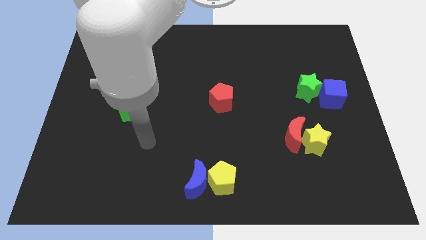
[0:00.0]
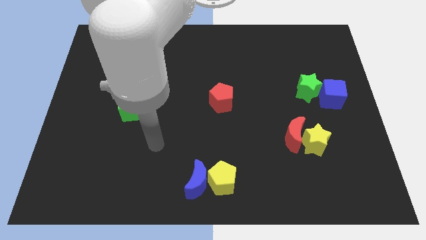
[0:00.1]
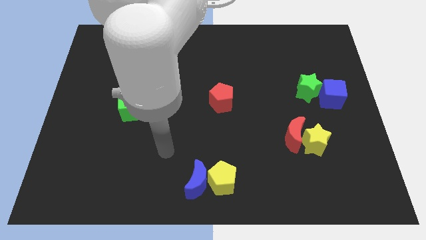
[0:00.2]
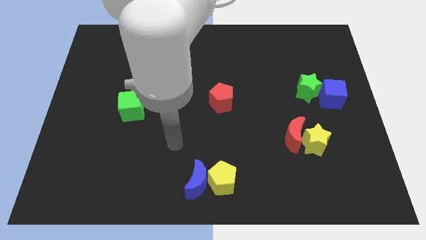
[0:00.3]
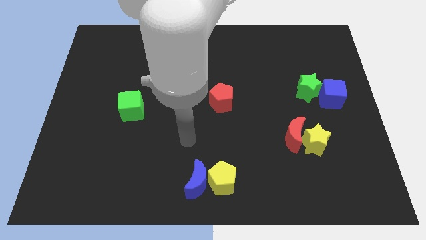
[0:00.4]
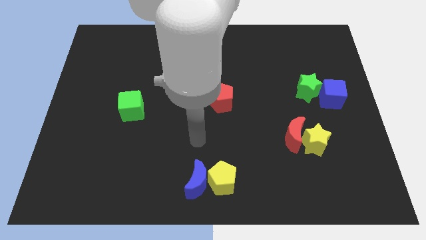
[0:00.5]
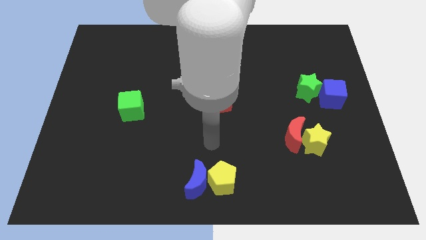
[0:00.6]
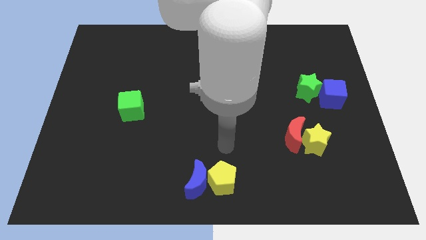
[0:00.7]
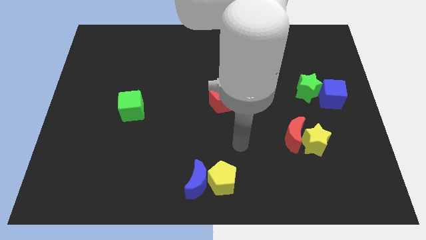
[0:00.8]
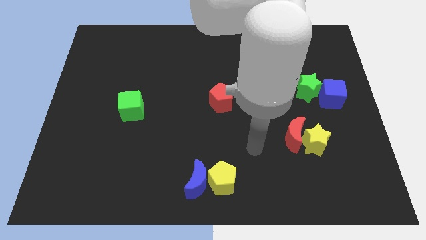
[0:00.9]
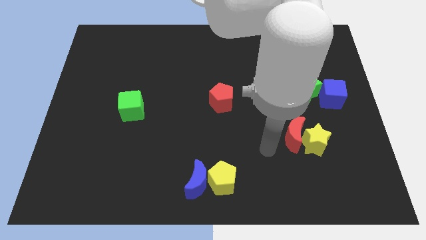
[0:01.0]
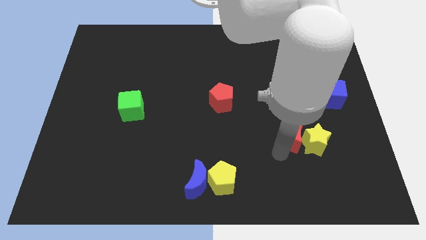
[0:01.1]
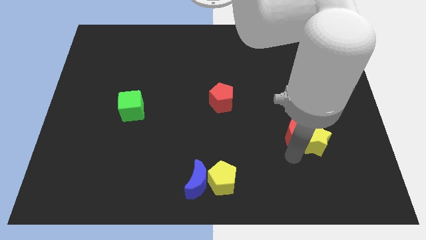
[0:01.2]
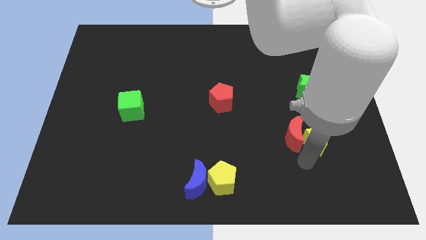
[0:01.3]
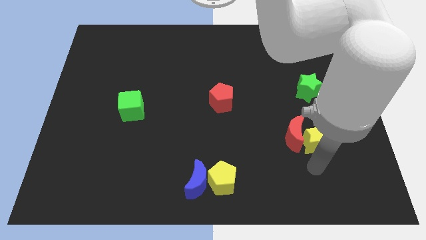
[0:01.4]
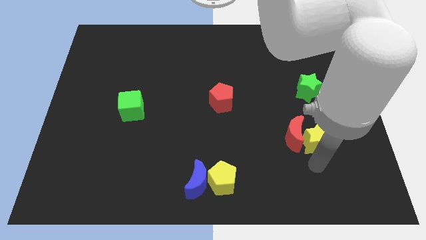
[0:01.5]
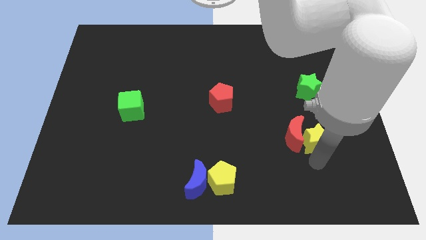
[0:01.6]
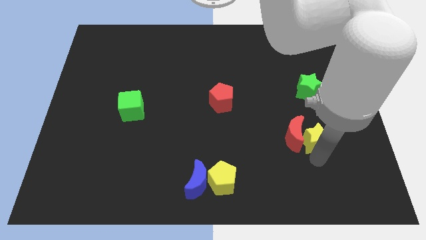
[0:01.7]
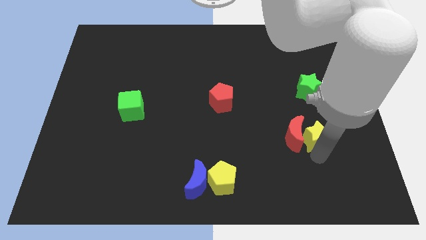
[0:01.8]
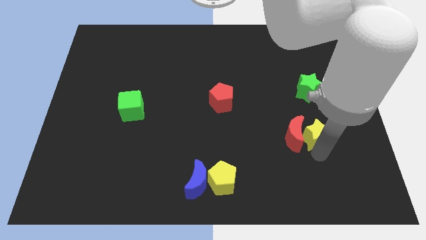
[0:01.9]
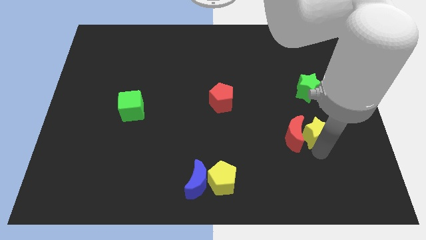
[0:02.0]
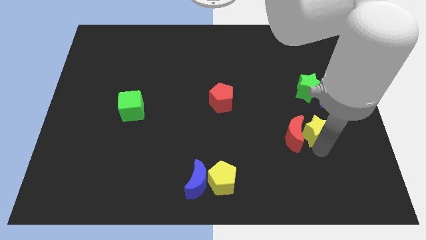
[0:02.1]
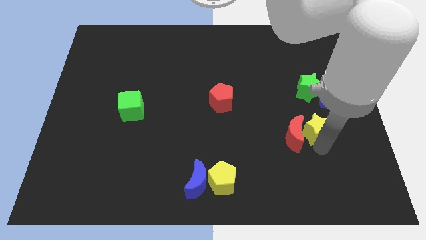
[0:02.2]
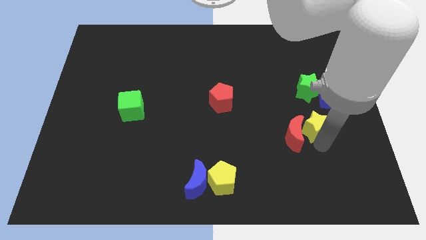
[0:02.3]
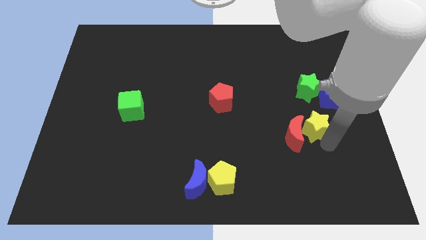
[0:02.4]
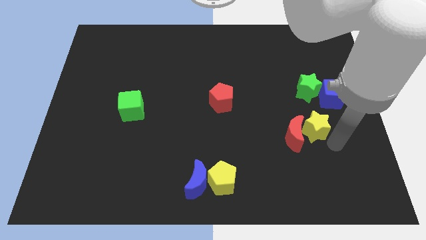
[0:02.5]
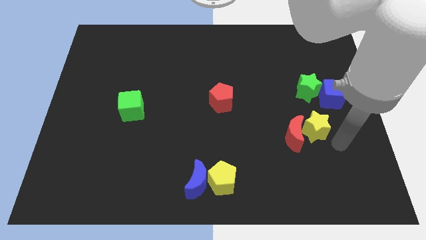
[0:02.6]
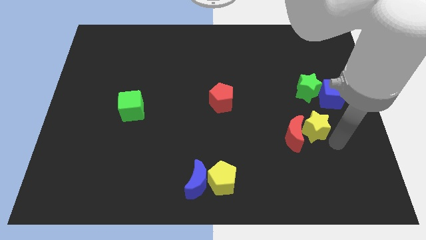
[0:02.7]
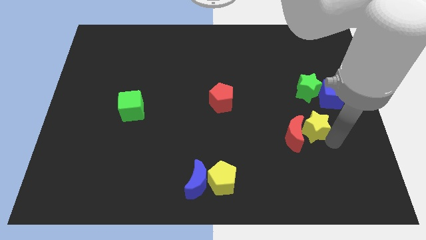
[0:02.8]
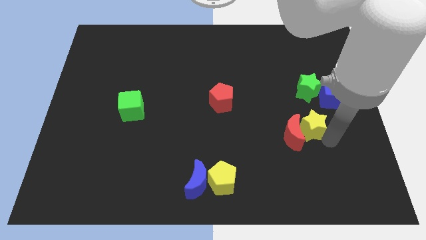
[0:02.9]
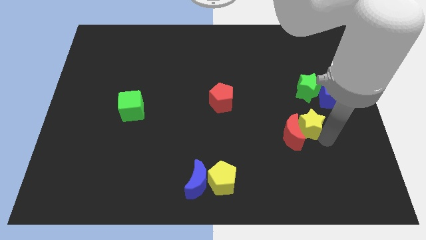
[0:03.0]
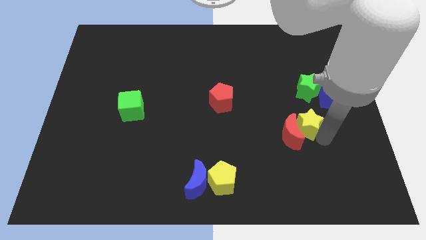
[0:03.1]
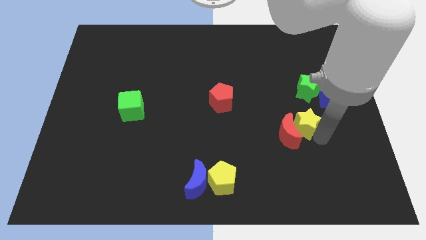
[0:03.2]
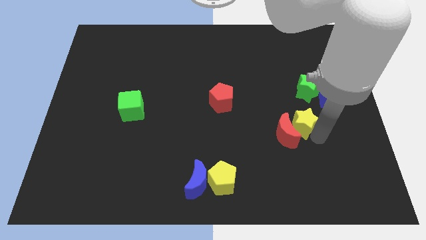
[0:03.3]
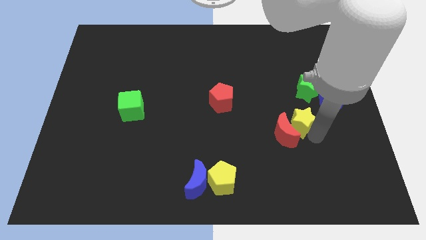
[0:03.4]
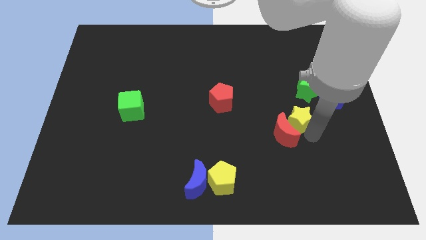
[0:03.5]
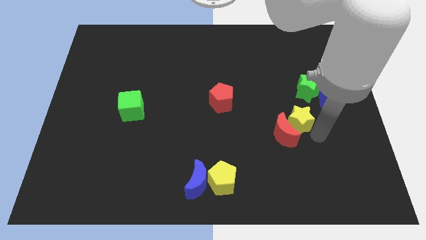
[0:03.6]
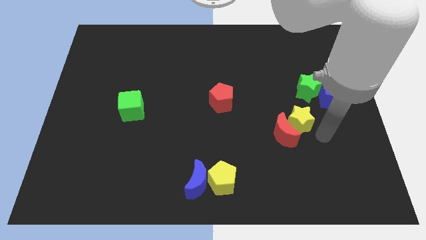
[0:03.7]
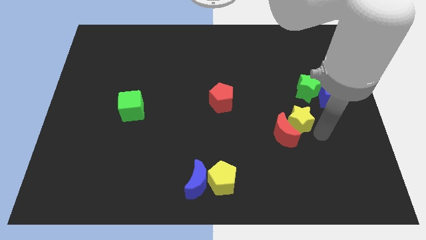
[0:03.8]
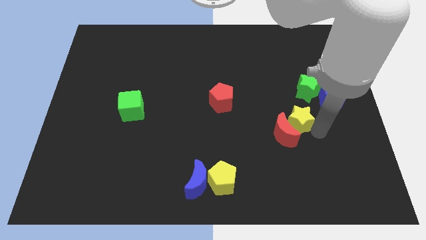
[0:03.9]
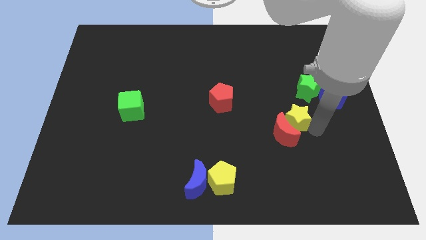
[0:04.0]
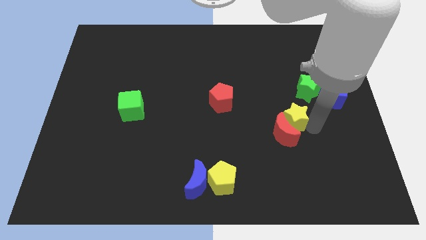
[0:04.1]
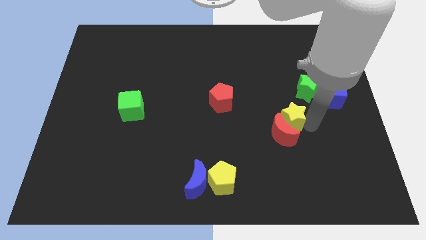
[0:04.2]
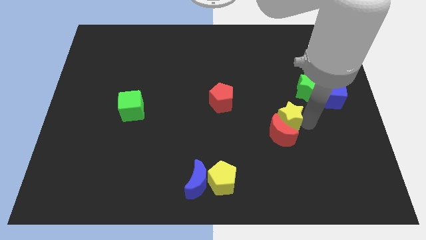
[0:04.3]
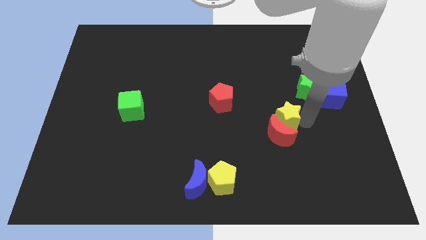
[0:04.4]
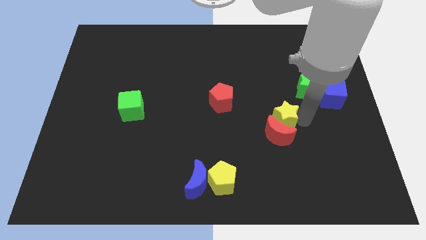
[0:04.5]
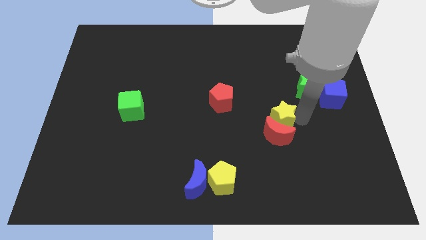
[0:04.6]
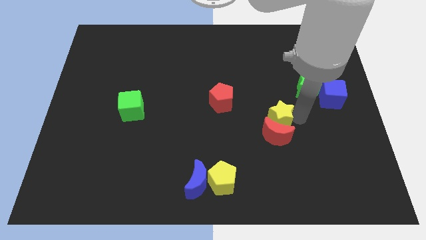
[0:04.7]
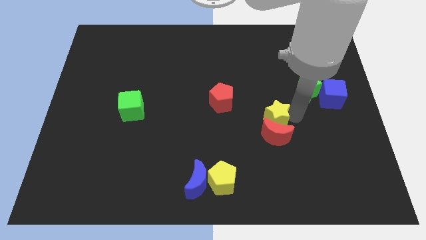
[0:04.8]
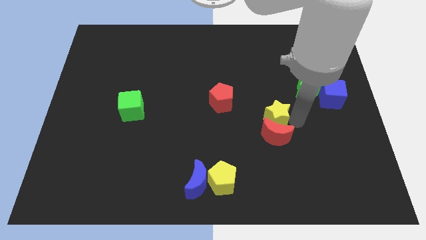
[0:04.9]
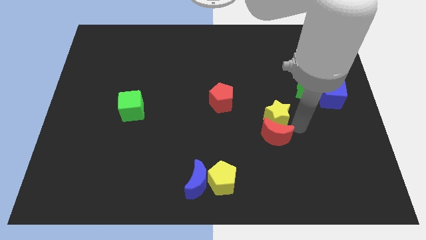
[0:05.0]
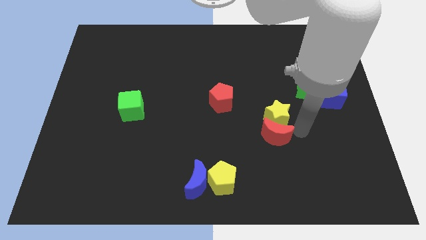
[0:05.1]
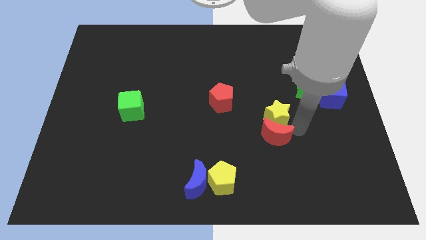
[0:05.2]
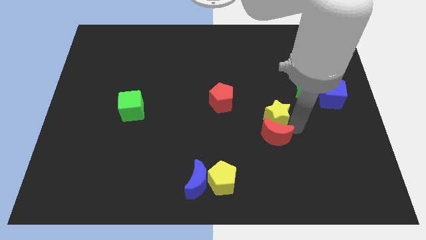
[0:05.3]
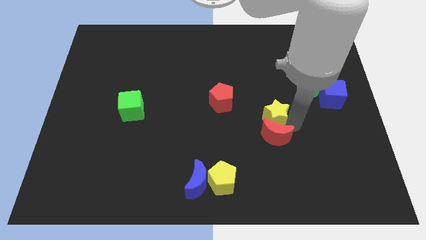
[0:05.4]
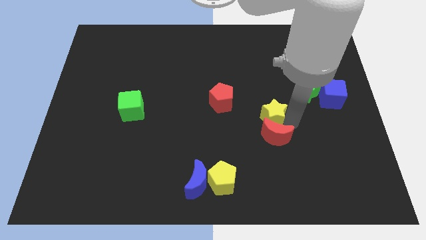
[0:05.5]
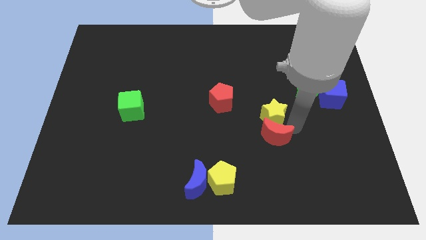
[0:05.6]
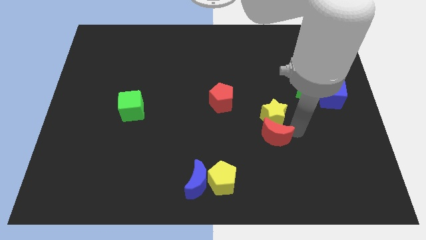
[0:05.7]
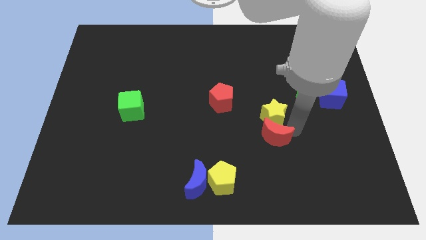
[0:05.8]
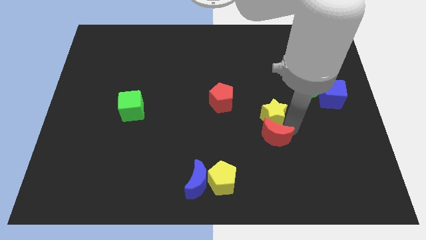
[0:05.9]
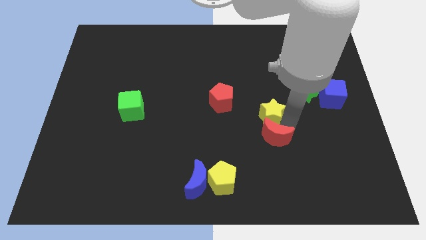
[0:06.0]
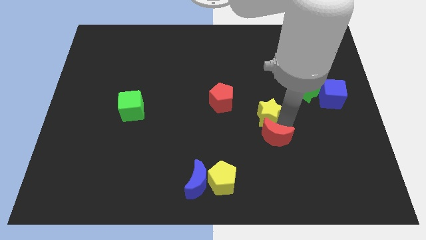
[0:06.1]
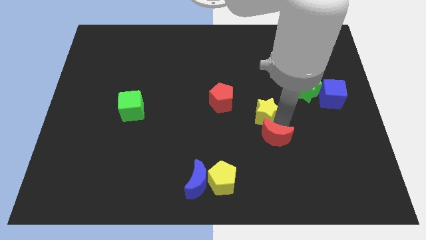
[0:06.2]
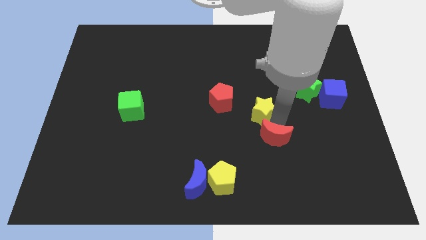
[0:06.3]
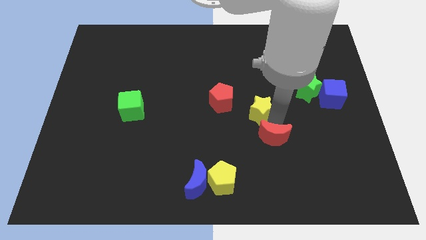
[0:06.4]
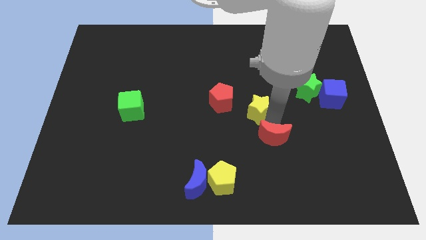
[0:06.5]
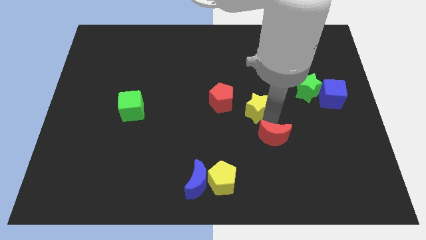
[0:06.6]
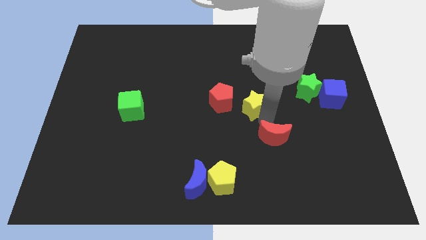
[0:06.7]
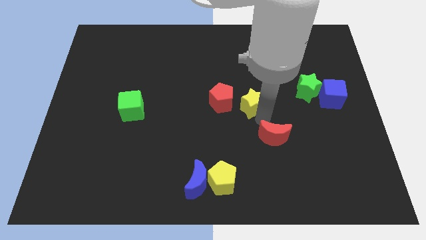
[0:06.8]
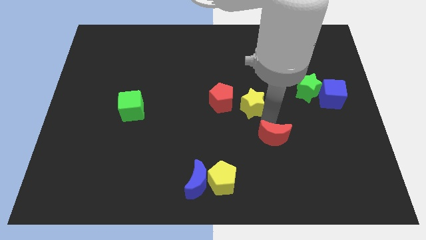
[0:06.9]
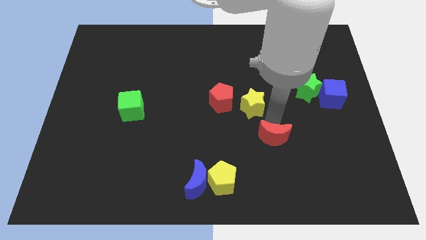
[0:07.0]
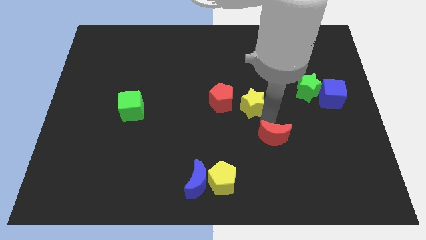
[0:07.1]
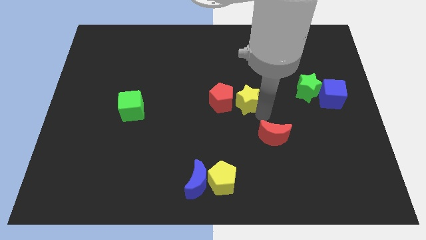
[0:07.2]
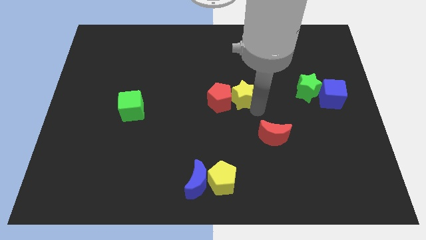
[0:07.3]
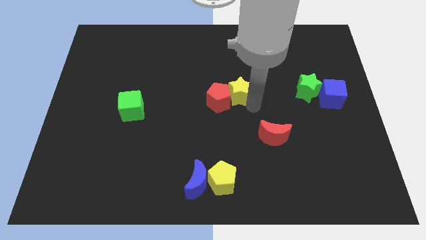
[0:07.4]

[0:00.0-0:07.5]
push the yellow star upwards and to the left

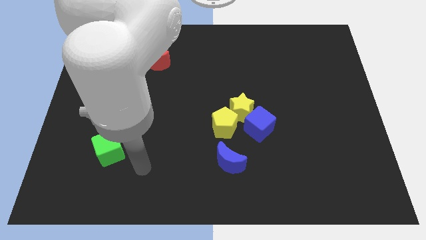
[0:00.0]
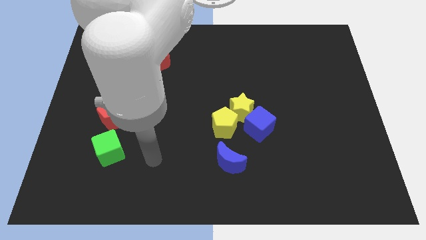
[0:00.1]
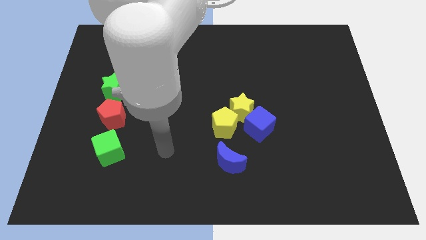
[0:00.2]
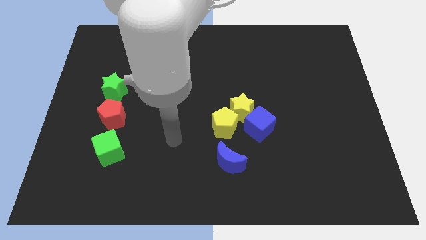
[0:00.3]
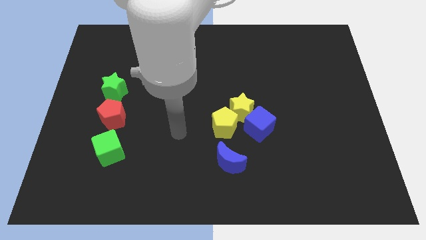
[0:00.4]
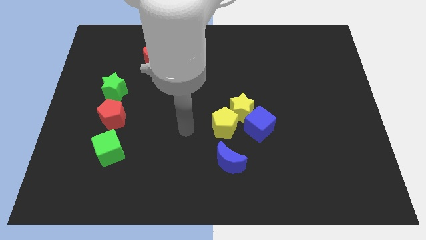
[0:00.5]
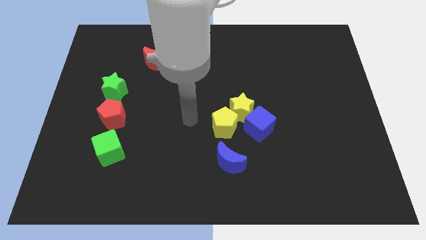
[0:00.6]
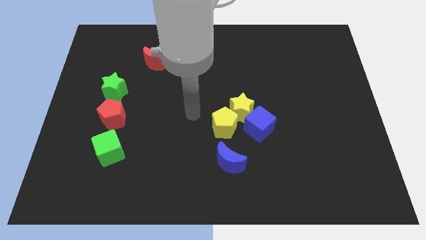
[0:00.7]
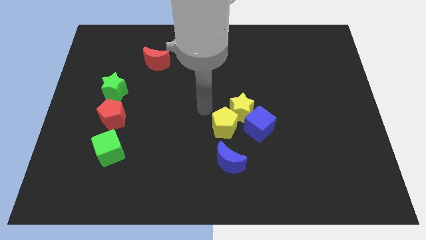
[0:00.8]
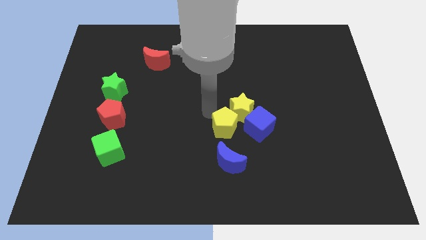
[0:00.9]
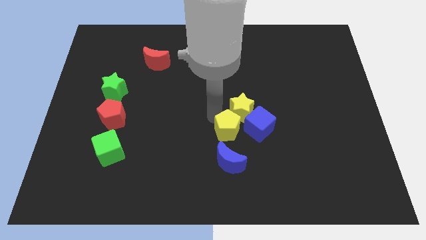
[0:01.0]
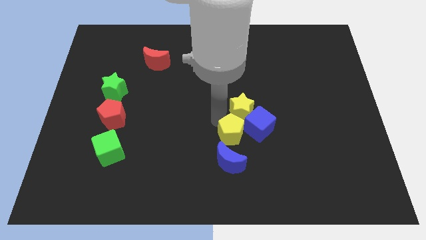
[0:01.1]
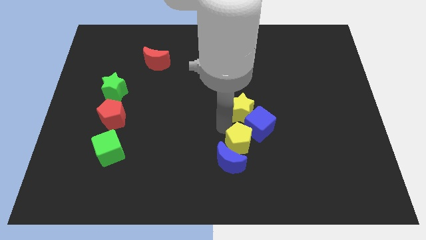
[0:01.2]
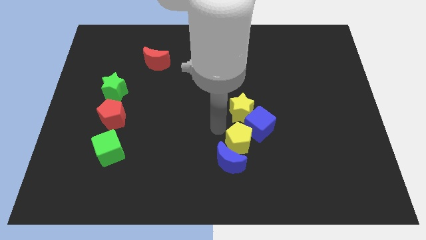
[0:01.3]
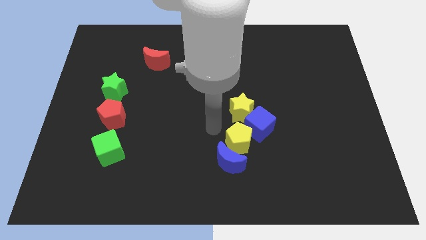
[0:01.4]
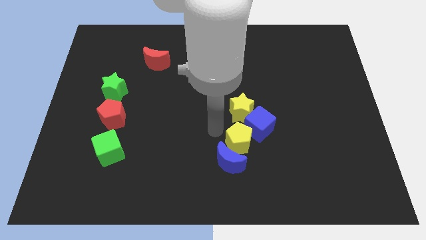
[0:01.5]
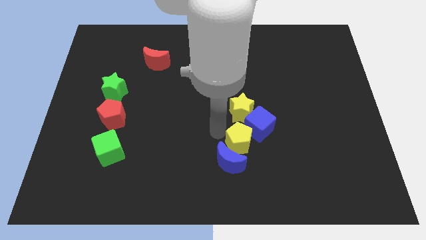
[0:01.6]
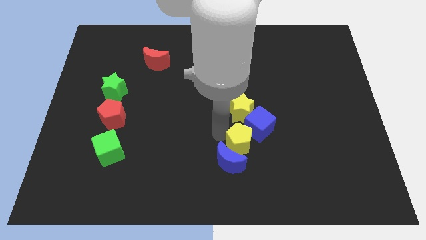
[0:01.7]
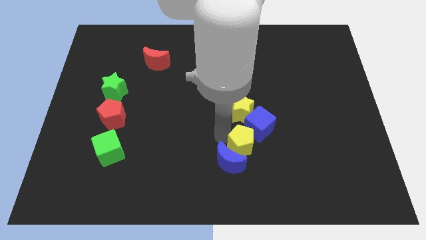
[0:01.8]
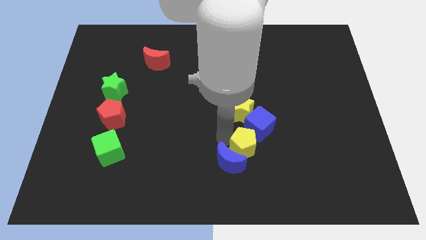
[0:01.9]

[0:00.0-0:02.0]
move the yellow pentagon downwards and right somewhat
